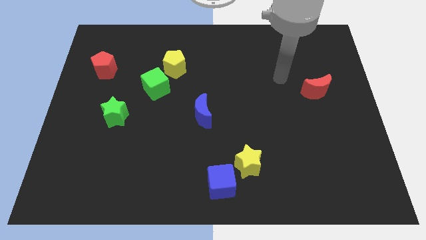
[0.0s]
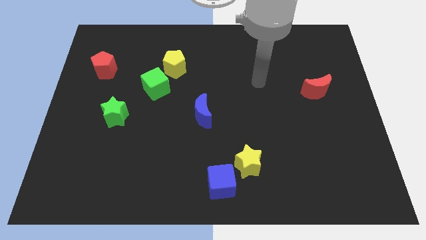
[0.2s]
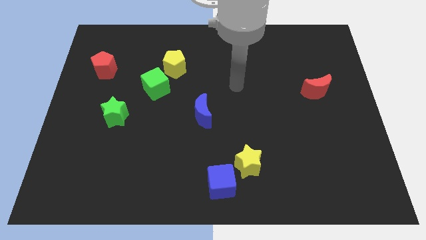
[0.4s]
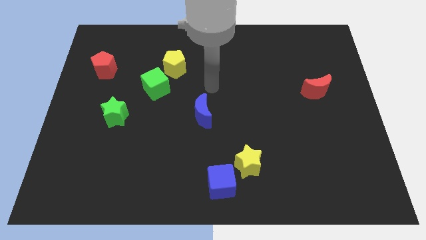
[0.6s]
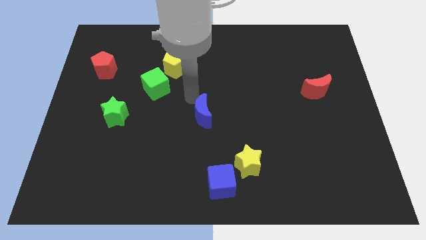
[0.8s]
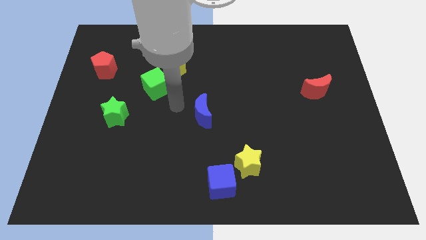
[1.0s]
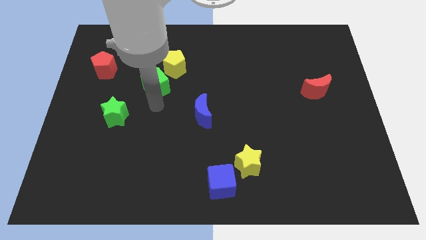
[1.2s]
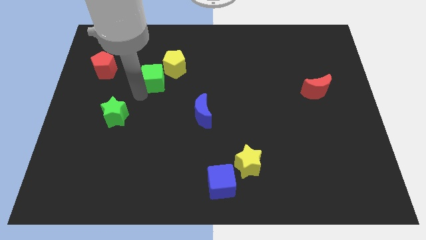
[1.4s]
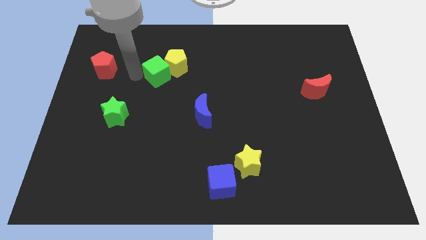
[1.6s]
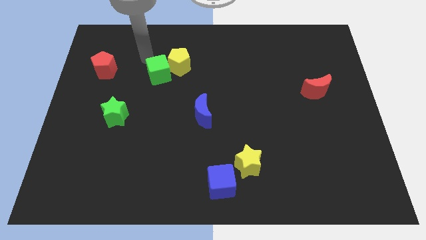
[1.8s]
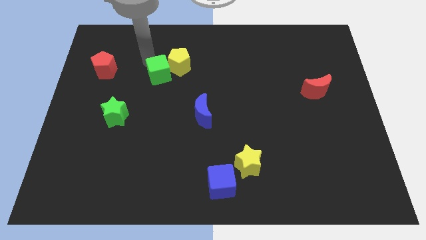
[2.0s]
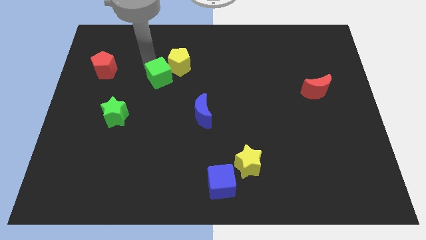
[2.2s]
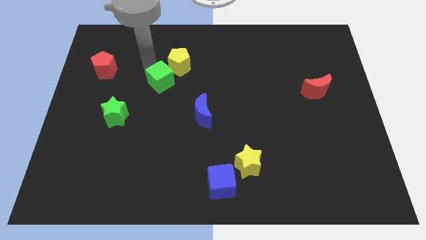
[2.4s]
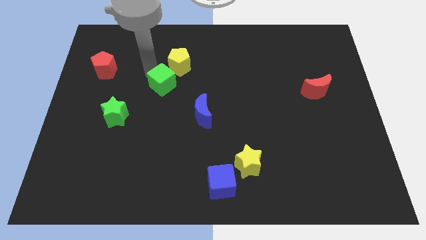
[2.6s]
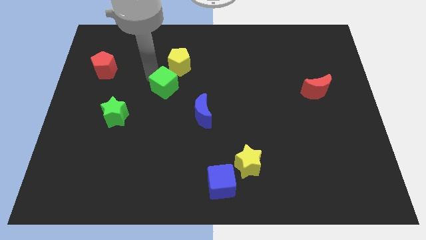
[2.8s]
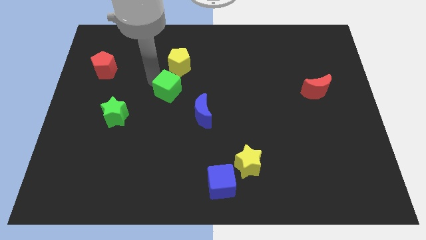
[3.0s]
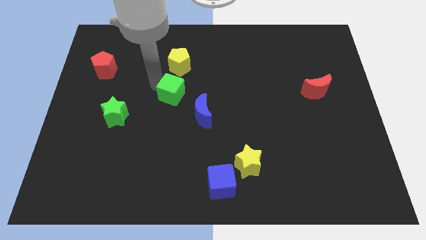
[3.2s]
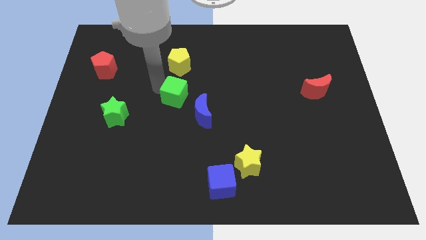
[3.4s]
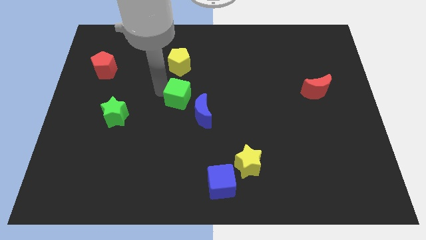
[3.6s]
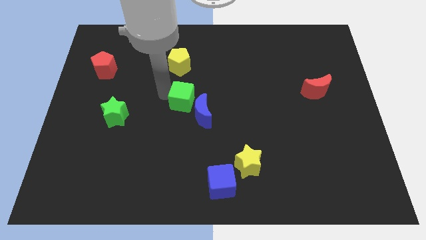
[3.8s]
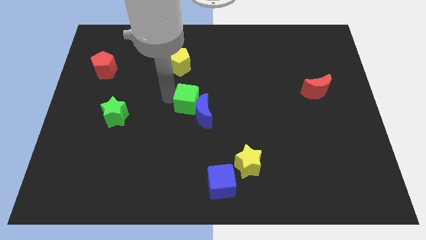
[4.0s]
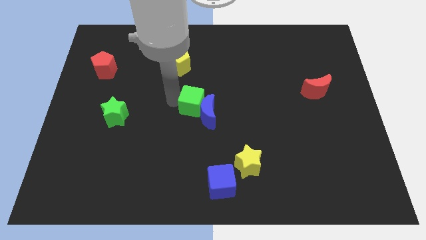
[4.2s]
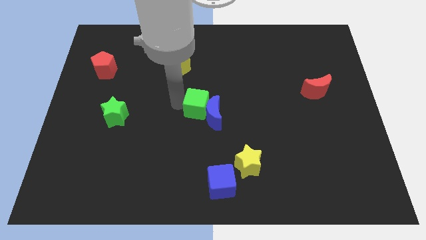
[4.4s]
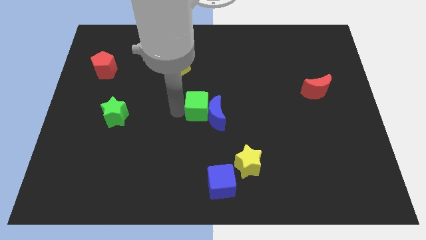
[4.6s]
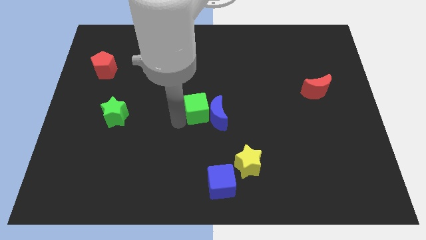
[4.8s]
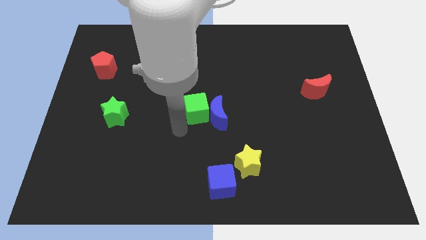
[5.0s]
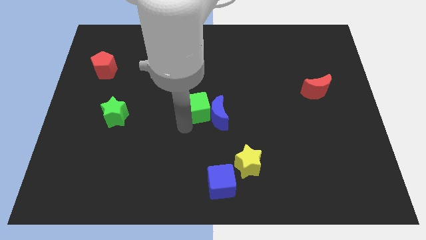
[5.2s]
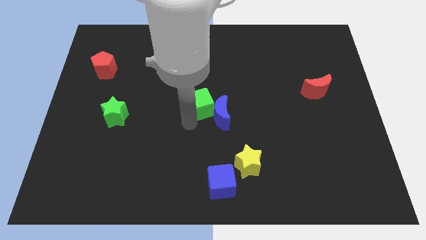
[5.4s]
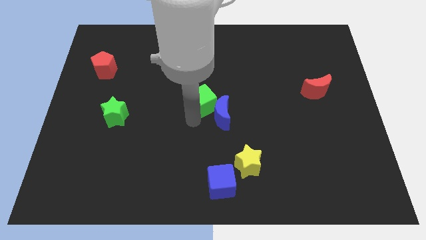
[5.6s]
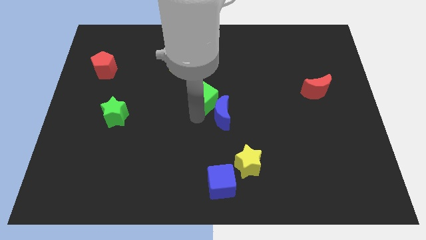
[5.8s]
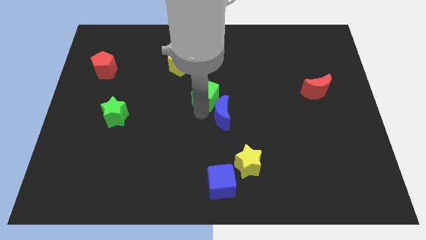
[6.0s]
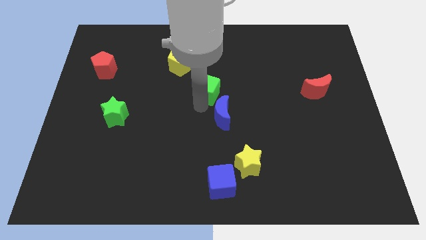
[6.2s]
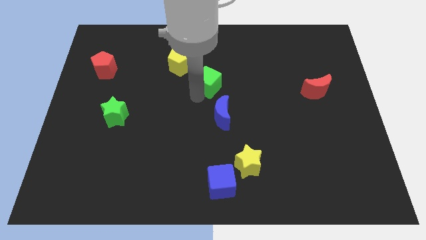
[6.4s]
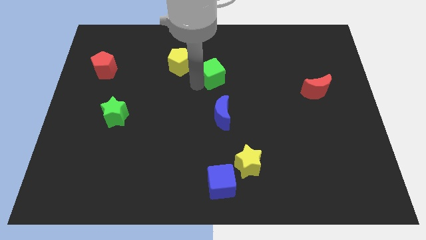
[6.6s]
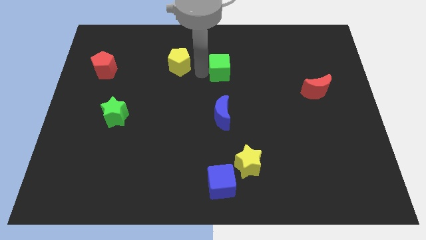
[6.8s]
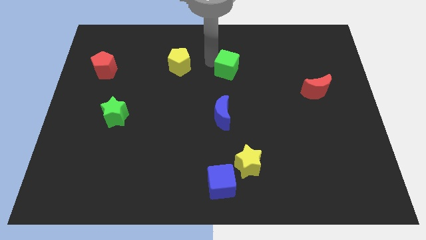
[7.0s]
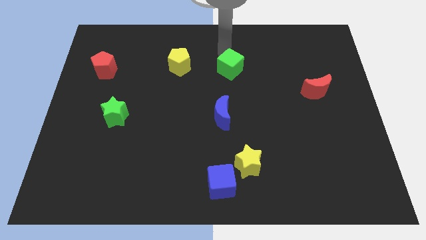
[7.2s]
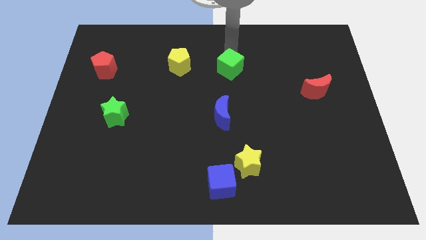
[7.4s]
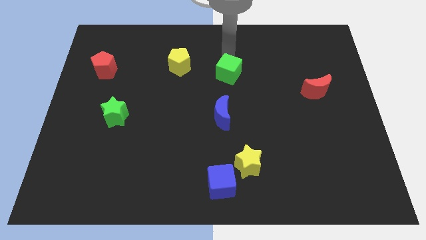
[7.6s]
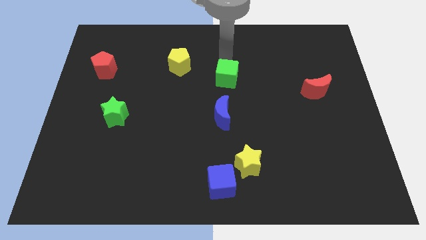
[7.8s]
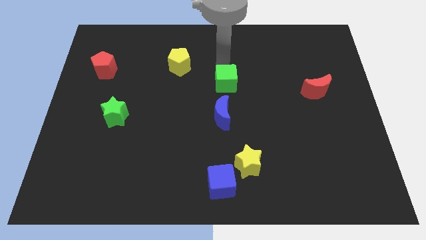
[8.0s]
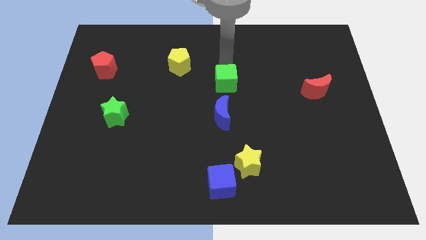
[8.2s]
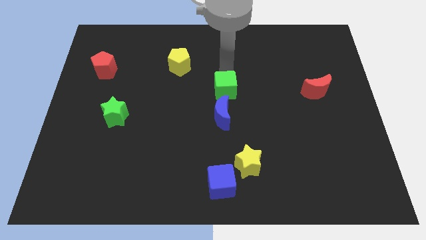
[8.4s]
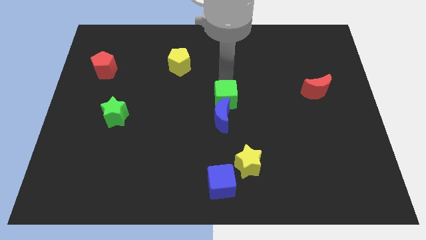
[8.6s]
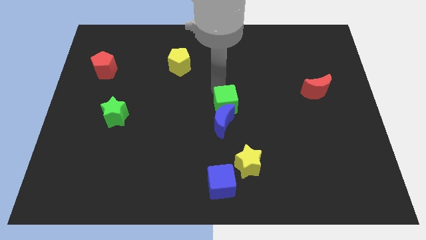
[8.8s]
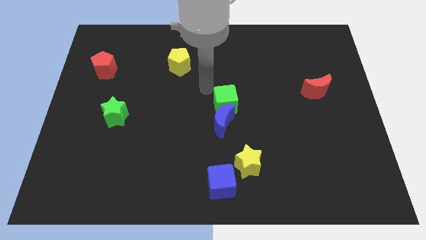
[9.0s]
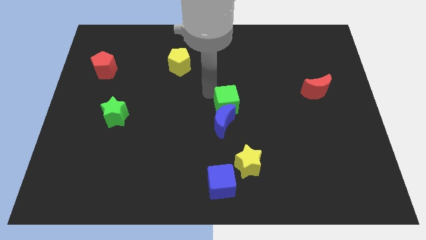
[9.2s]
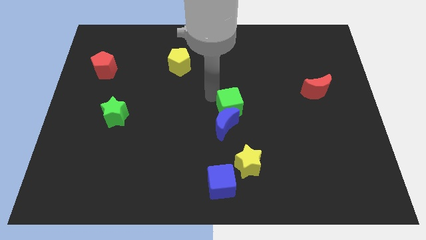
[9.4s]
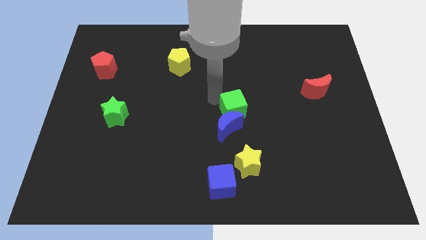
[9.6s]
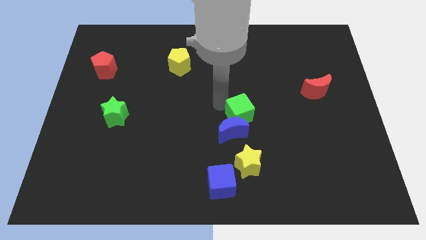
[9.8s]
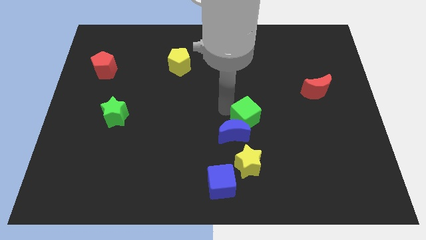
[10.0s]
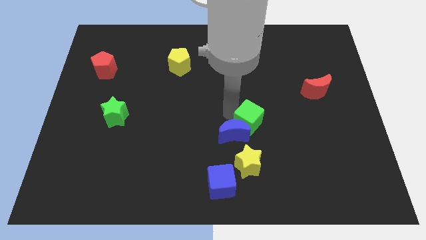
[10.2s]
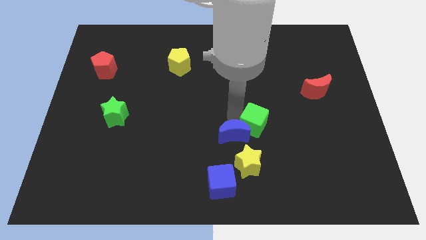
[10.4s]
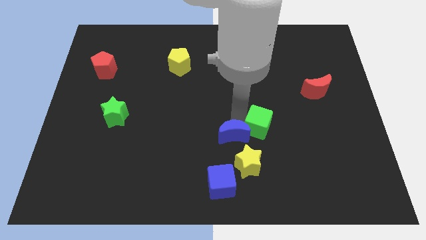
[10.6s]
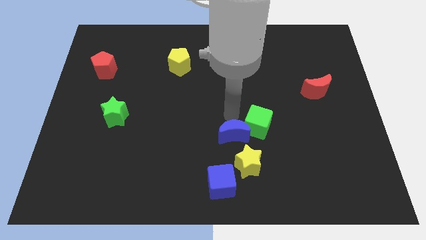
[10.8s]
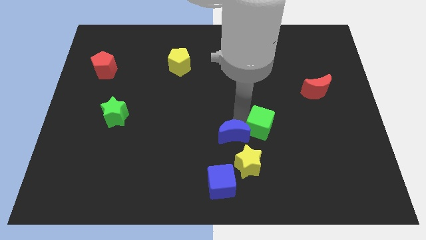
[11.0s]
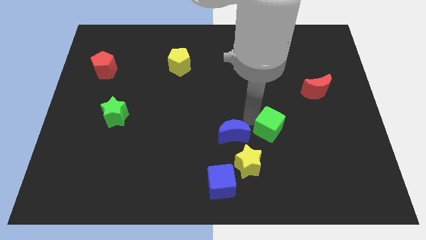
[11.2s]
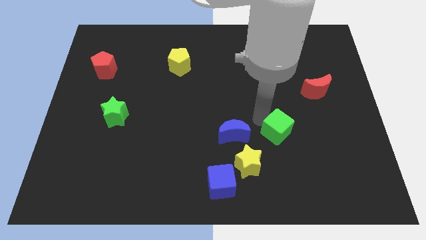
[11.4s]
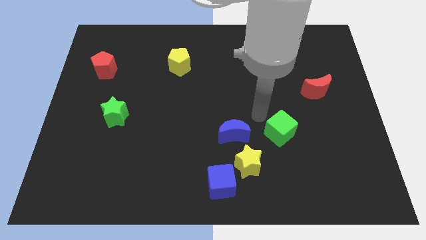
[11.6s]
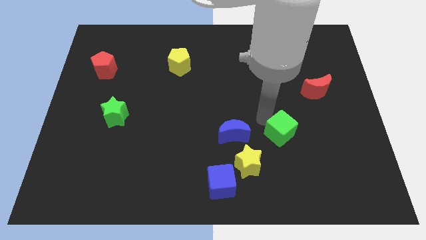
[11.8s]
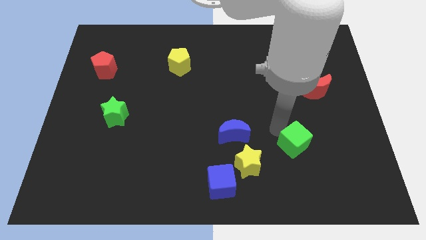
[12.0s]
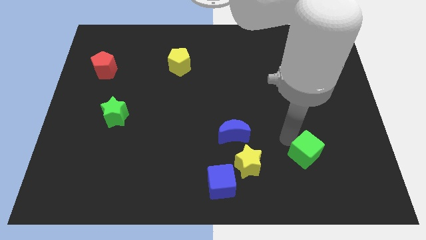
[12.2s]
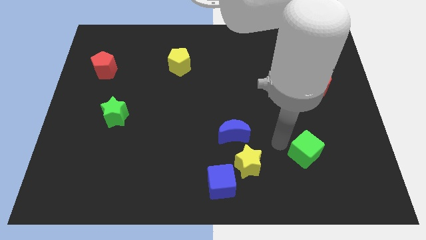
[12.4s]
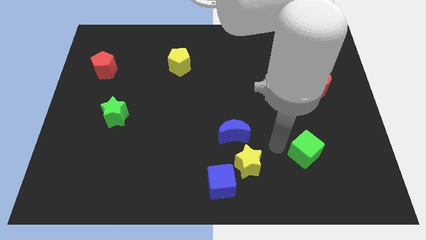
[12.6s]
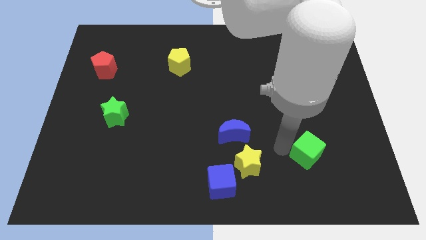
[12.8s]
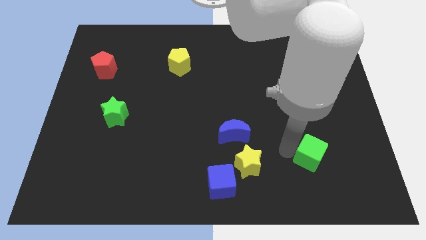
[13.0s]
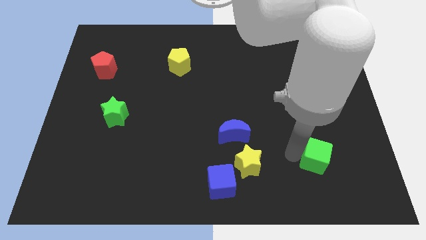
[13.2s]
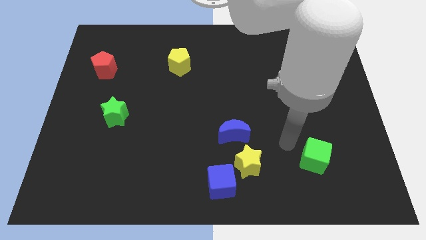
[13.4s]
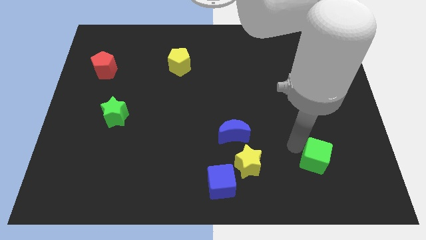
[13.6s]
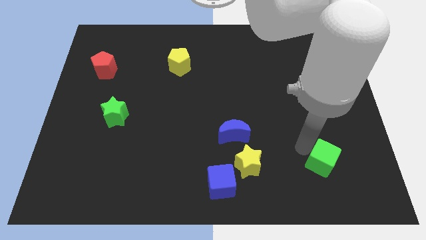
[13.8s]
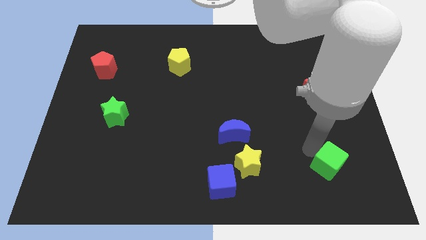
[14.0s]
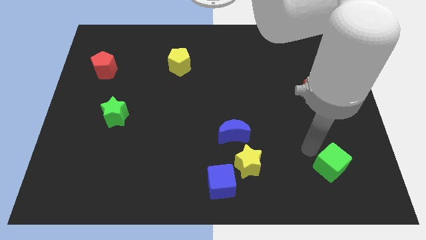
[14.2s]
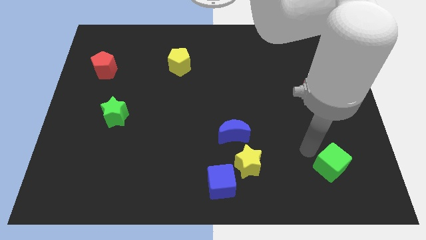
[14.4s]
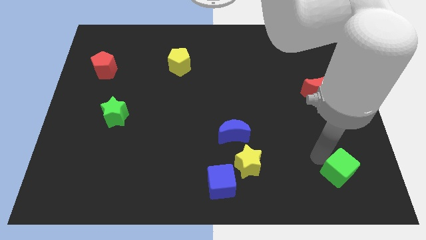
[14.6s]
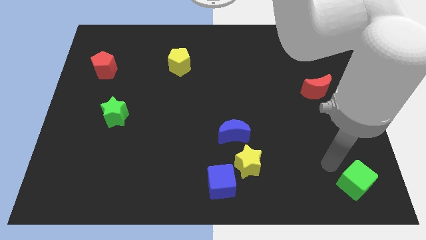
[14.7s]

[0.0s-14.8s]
push the green cube to the bottom right corner
